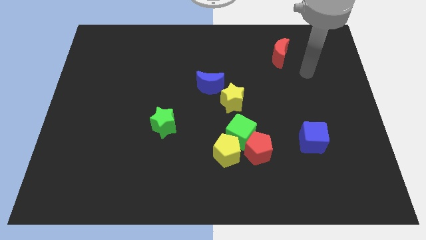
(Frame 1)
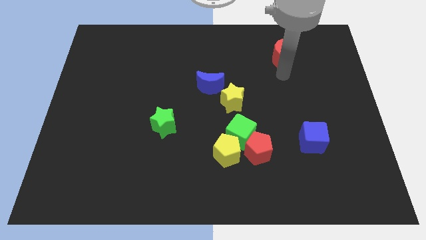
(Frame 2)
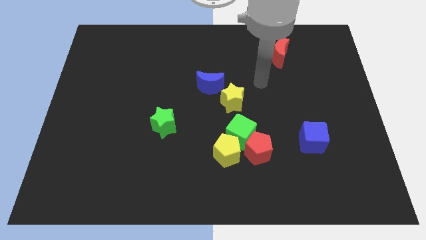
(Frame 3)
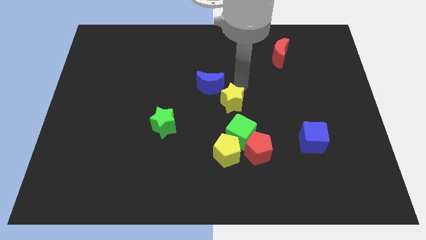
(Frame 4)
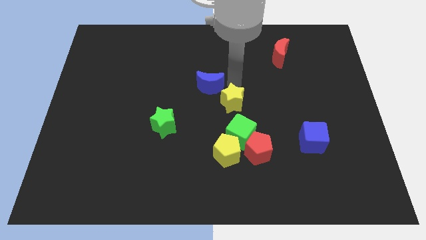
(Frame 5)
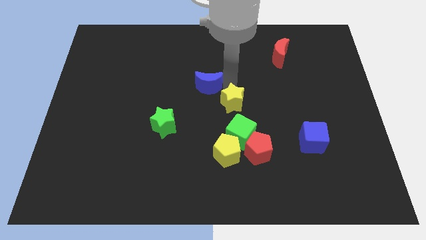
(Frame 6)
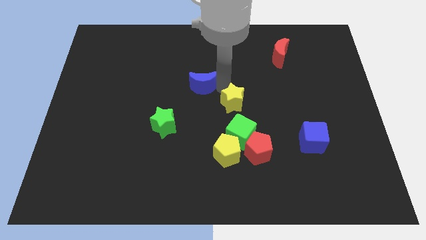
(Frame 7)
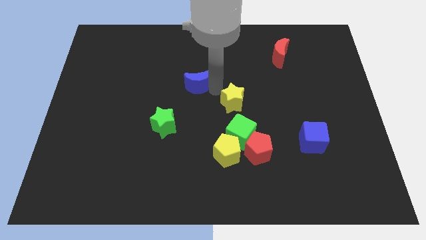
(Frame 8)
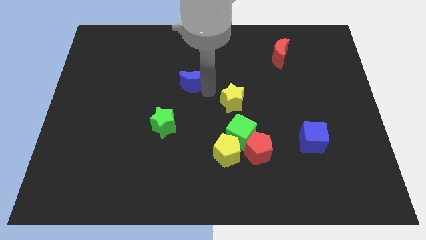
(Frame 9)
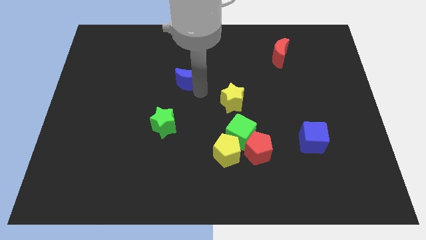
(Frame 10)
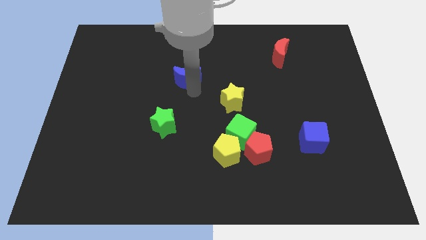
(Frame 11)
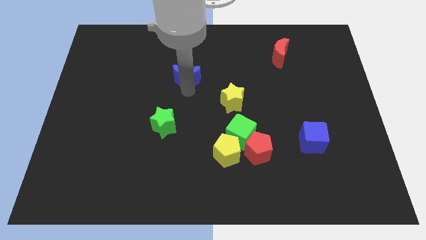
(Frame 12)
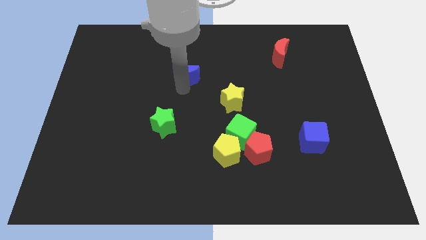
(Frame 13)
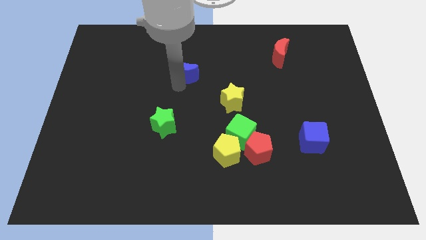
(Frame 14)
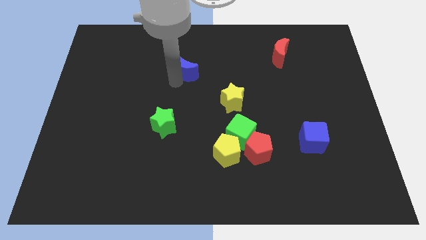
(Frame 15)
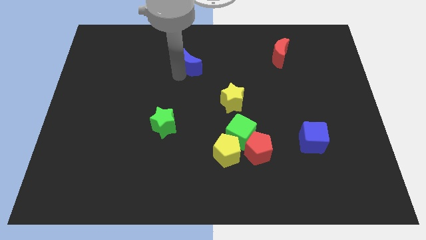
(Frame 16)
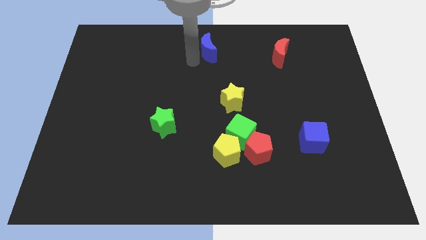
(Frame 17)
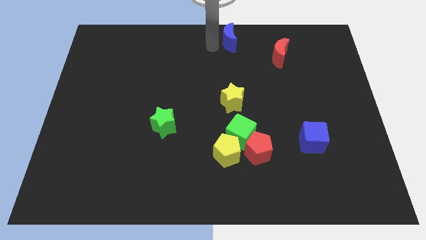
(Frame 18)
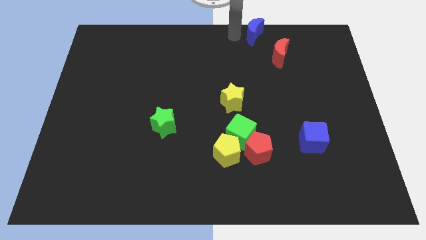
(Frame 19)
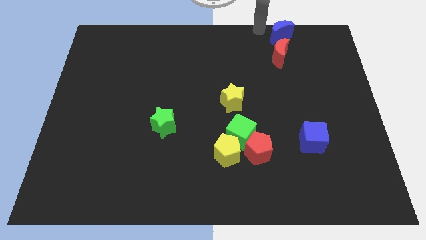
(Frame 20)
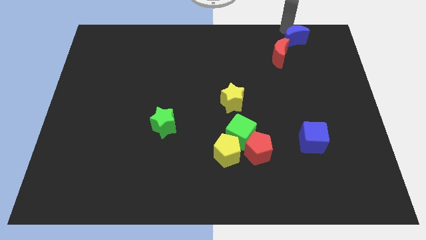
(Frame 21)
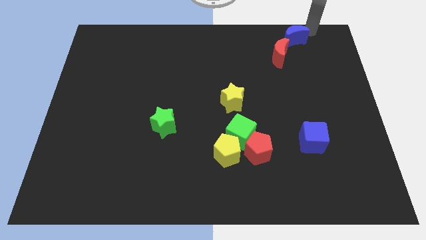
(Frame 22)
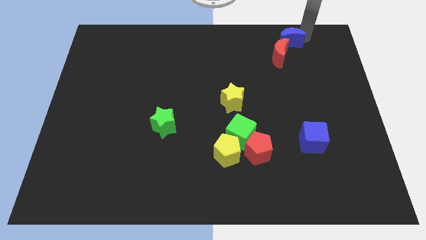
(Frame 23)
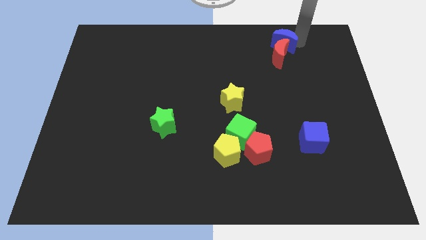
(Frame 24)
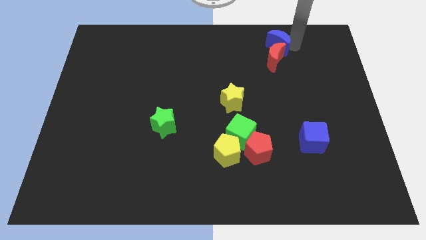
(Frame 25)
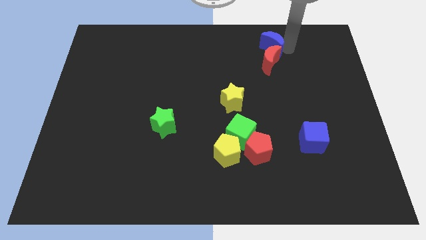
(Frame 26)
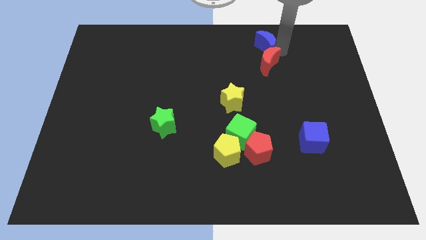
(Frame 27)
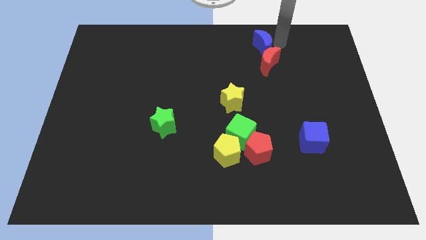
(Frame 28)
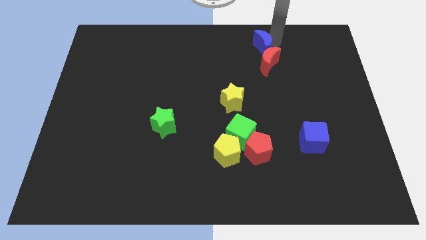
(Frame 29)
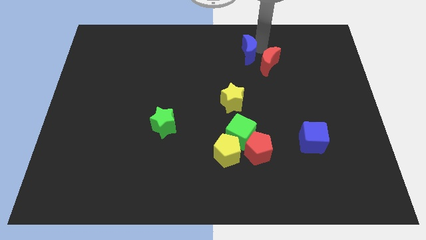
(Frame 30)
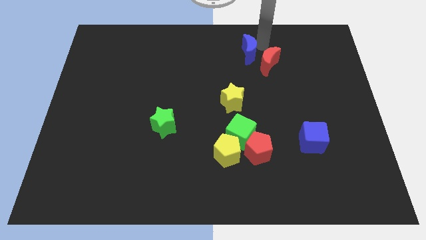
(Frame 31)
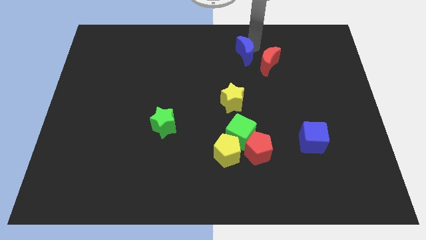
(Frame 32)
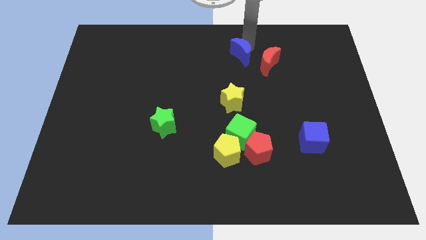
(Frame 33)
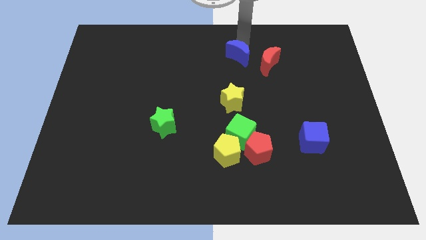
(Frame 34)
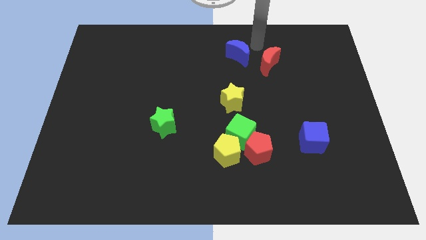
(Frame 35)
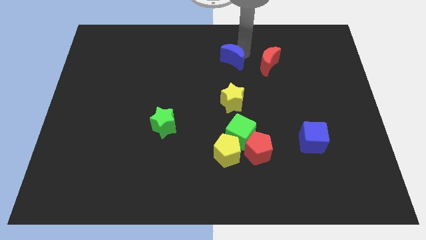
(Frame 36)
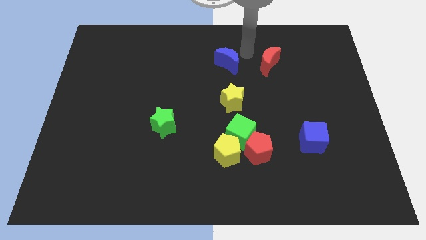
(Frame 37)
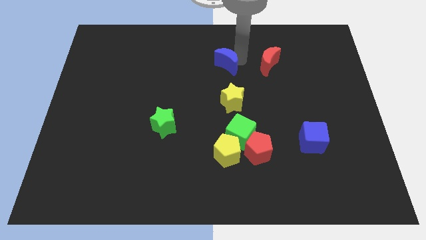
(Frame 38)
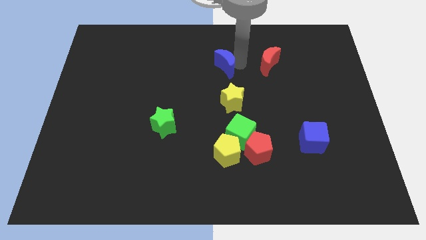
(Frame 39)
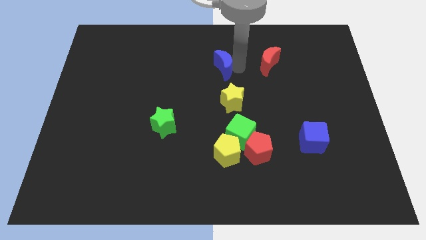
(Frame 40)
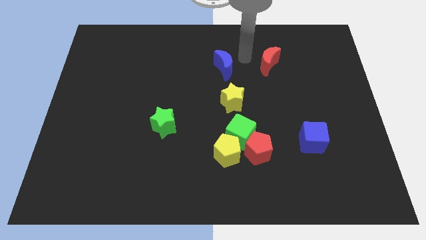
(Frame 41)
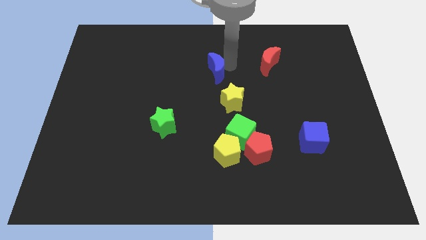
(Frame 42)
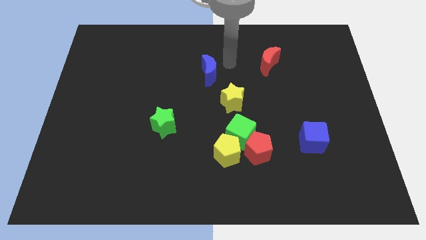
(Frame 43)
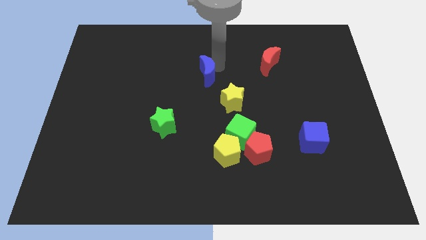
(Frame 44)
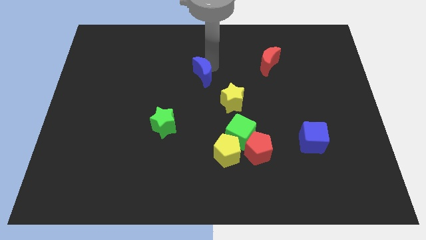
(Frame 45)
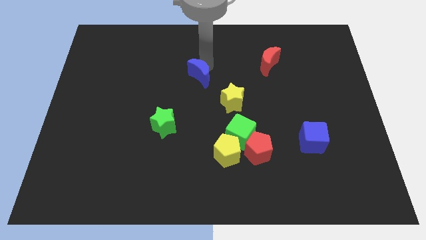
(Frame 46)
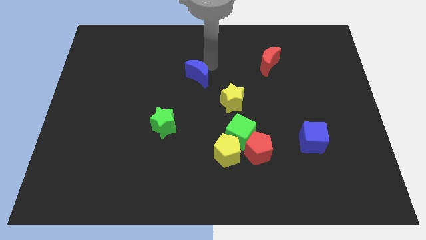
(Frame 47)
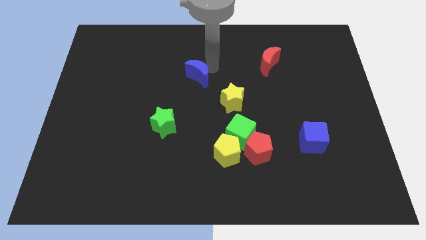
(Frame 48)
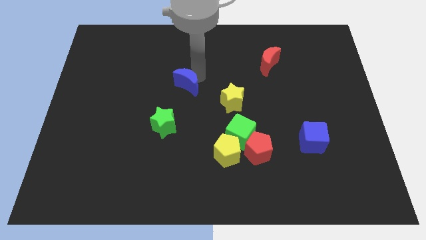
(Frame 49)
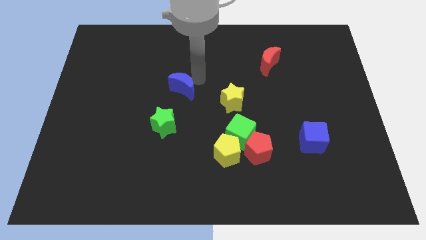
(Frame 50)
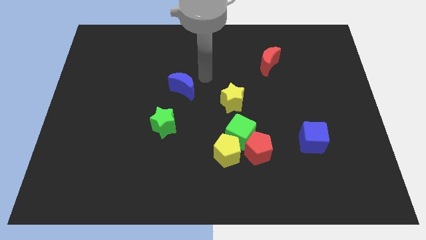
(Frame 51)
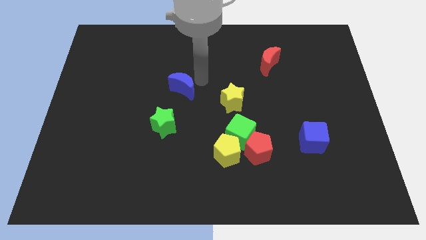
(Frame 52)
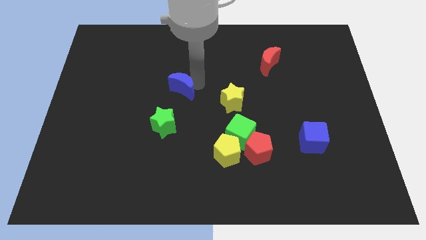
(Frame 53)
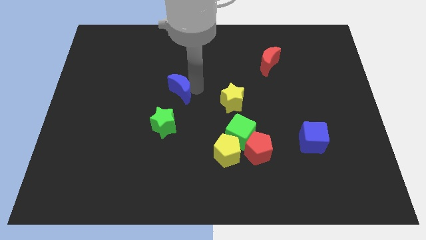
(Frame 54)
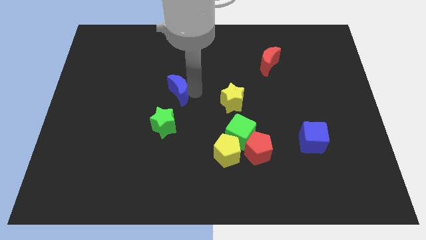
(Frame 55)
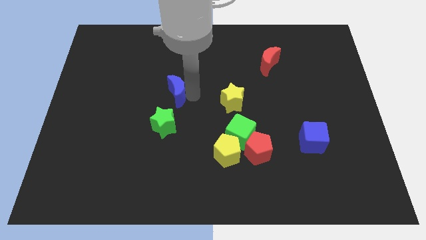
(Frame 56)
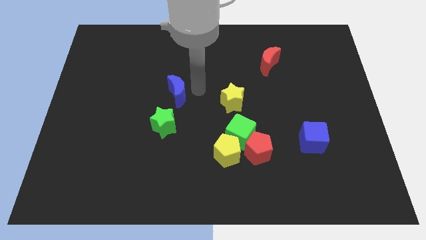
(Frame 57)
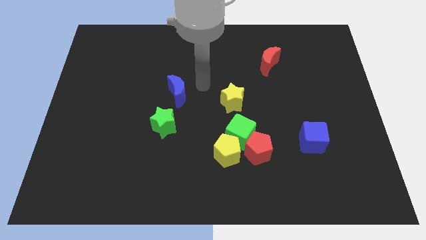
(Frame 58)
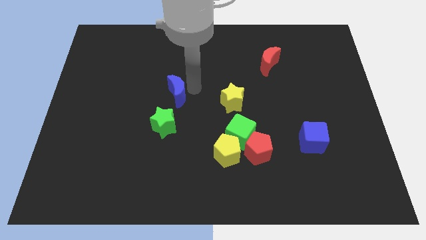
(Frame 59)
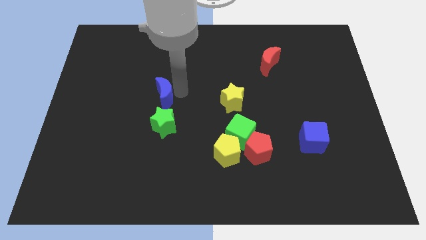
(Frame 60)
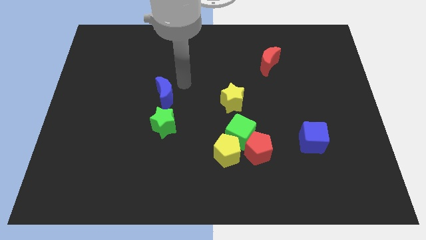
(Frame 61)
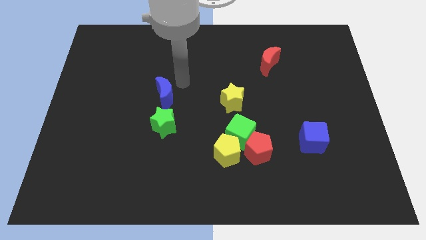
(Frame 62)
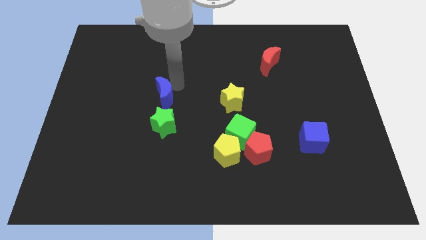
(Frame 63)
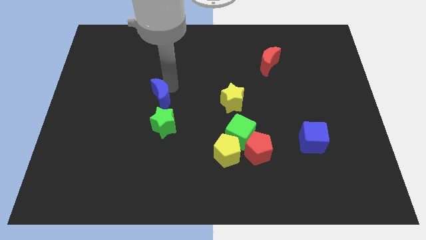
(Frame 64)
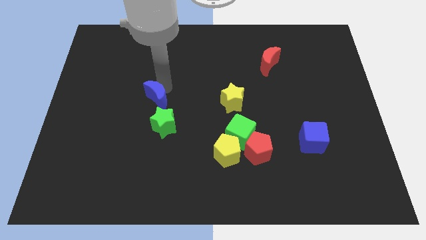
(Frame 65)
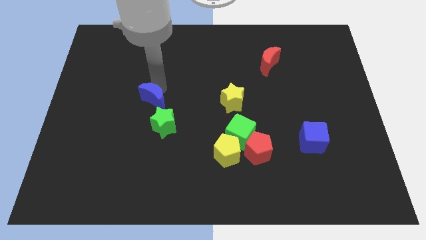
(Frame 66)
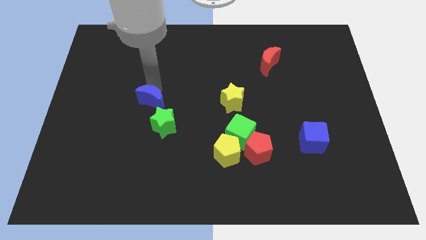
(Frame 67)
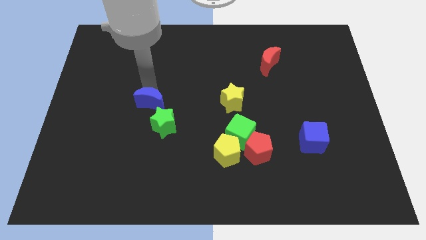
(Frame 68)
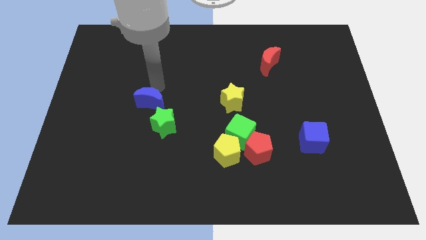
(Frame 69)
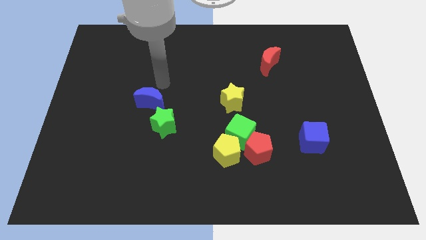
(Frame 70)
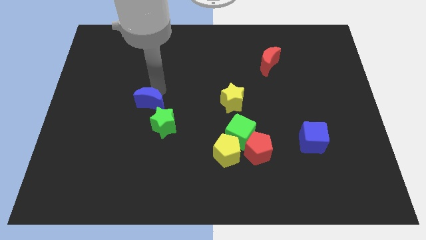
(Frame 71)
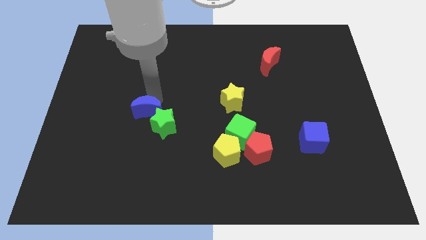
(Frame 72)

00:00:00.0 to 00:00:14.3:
slide the blue moon to the left of the green star

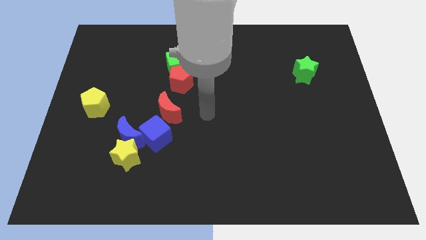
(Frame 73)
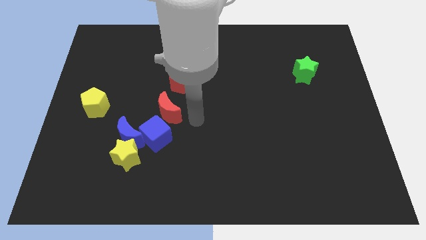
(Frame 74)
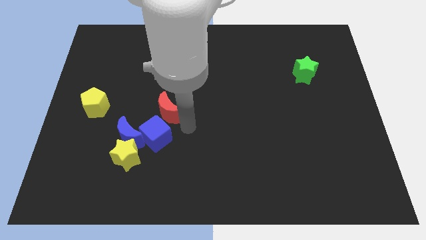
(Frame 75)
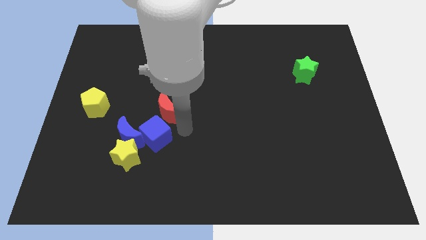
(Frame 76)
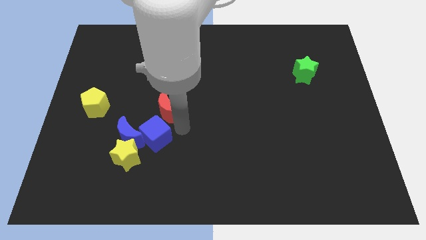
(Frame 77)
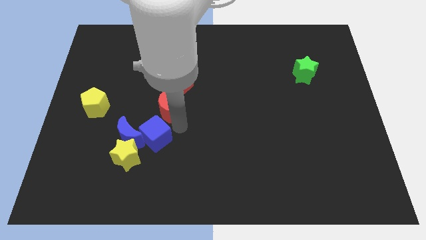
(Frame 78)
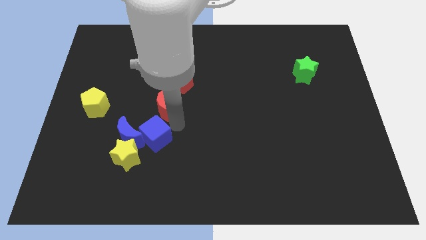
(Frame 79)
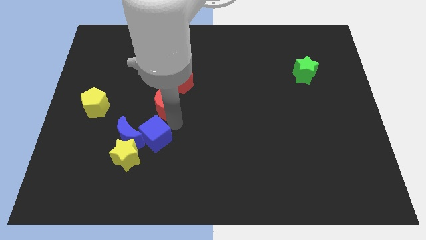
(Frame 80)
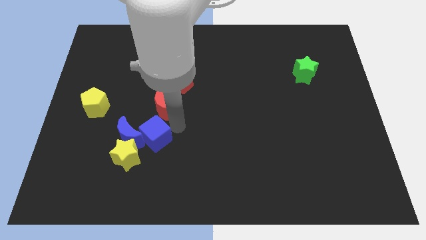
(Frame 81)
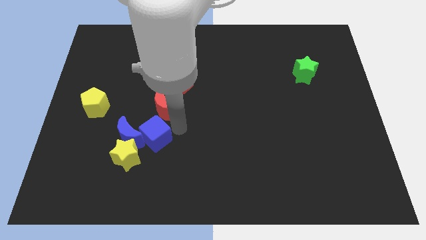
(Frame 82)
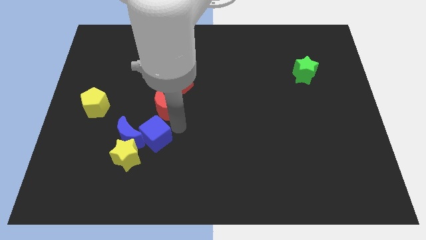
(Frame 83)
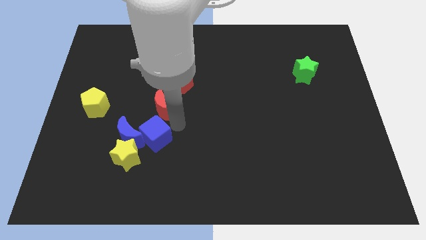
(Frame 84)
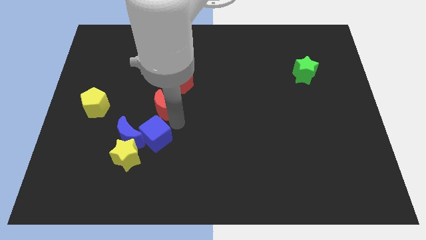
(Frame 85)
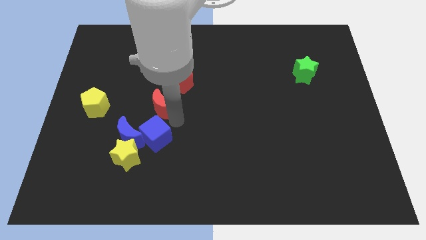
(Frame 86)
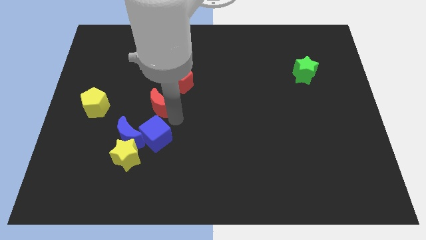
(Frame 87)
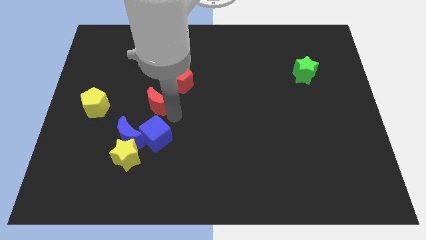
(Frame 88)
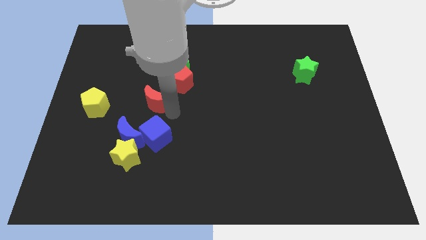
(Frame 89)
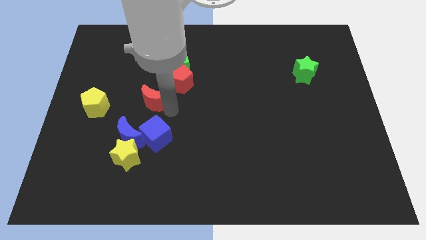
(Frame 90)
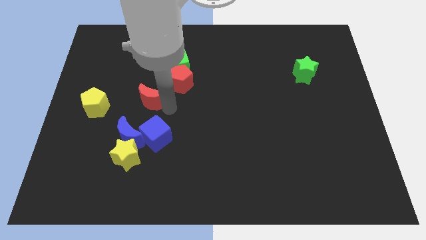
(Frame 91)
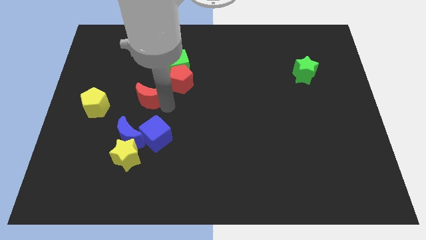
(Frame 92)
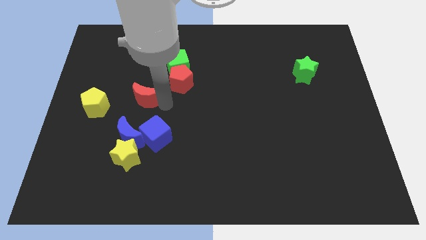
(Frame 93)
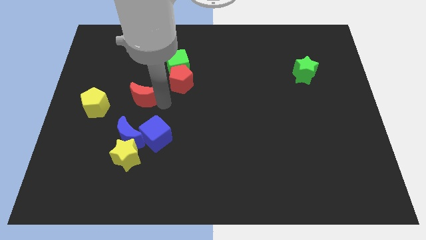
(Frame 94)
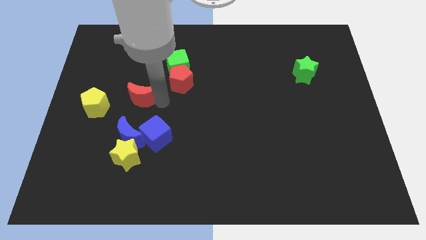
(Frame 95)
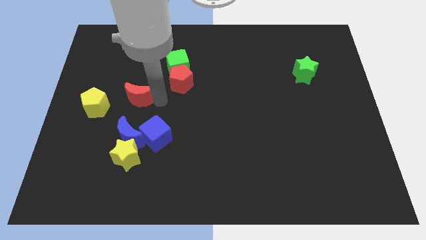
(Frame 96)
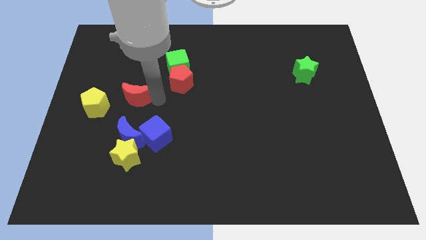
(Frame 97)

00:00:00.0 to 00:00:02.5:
put the red moon diagonally up and to the right of the yellow pentagon
